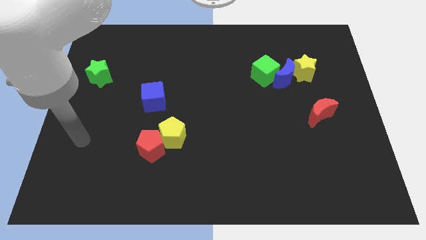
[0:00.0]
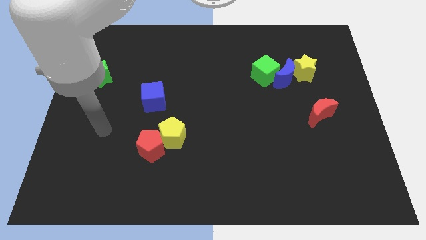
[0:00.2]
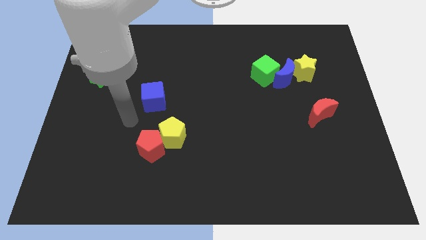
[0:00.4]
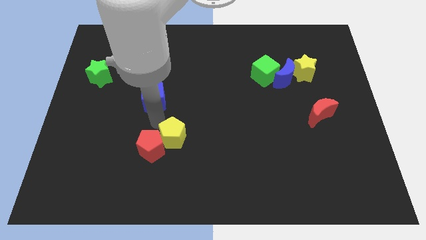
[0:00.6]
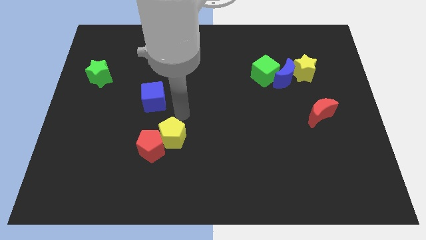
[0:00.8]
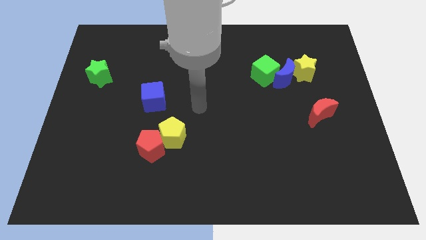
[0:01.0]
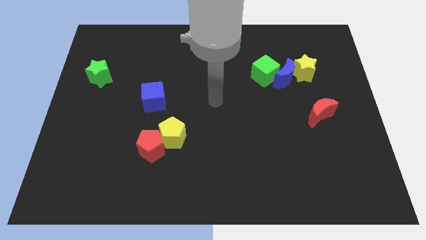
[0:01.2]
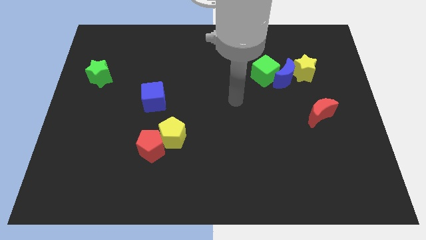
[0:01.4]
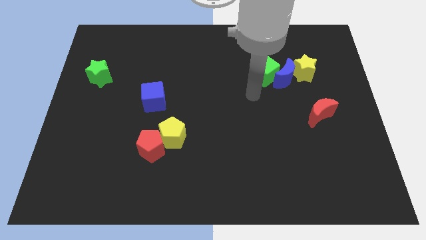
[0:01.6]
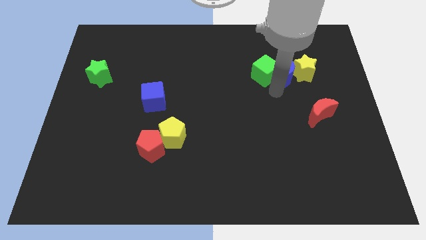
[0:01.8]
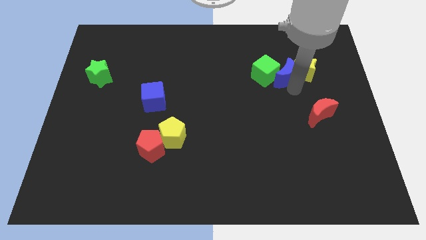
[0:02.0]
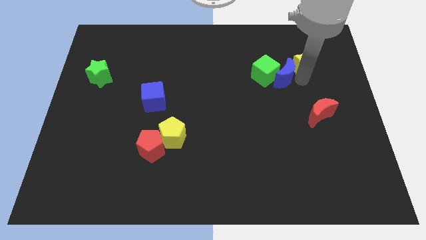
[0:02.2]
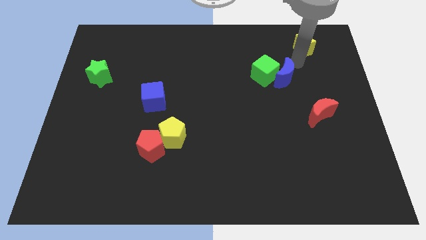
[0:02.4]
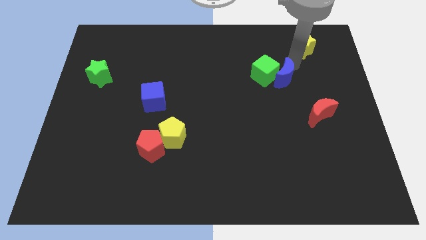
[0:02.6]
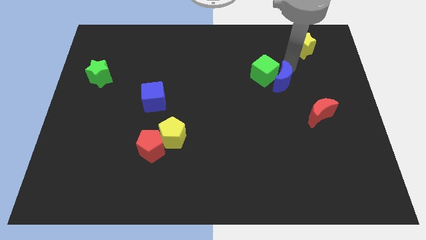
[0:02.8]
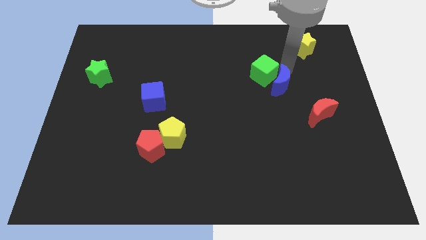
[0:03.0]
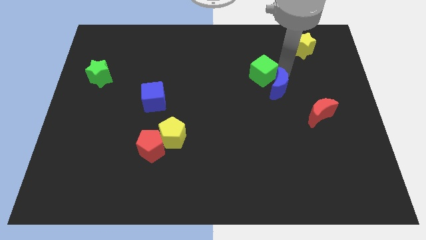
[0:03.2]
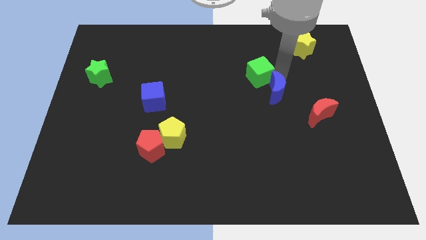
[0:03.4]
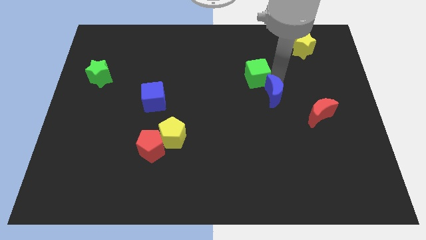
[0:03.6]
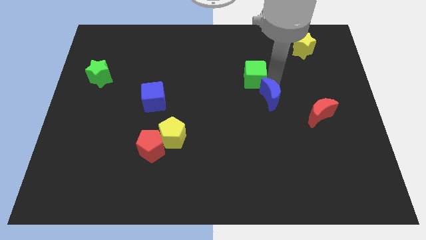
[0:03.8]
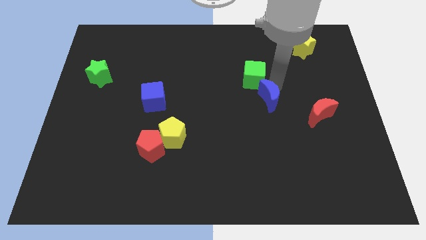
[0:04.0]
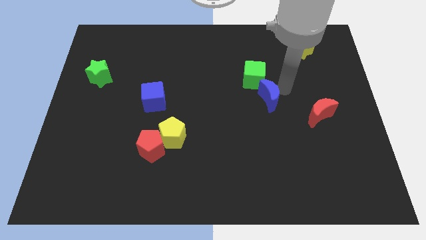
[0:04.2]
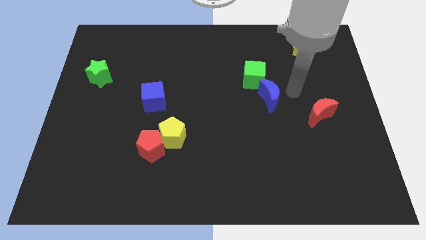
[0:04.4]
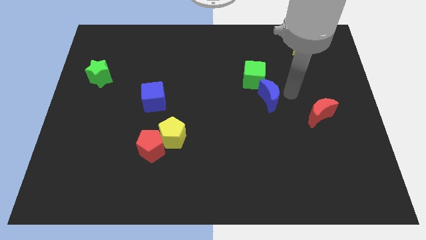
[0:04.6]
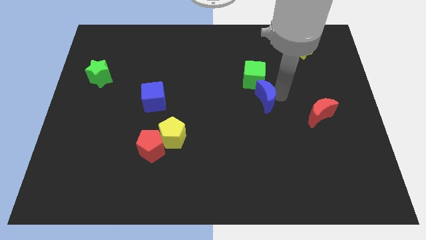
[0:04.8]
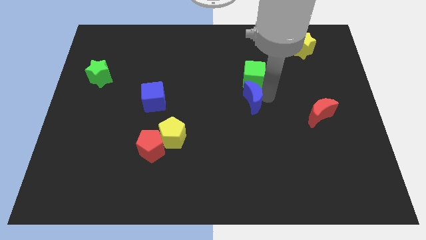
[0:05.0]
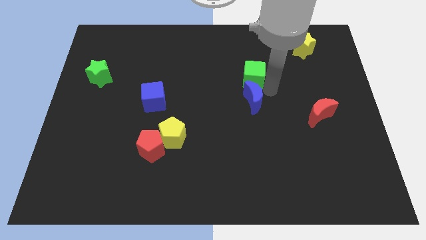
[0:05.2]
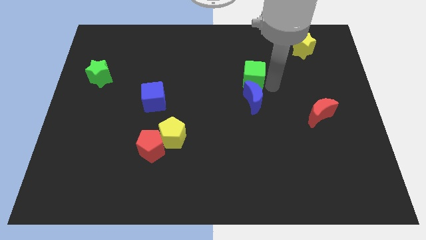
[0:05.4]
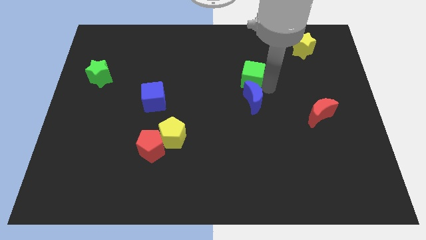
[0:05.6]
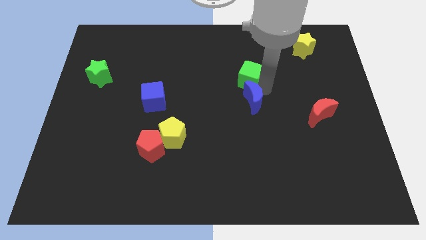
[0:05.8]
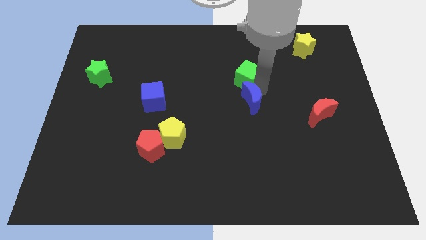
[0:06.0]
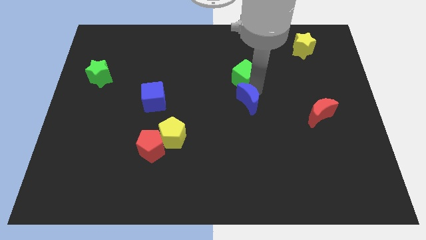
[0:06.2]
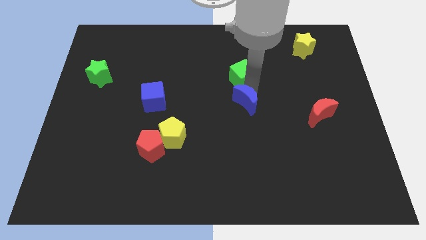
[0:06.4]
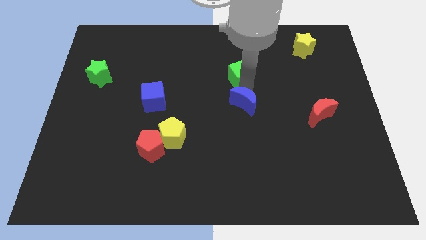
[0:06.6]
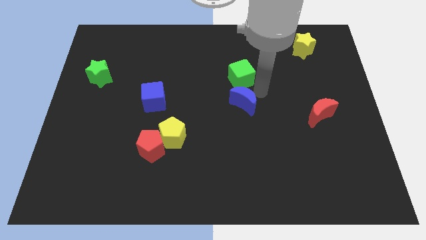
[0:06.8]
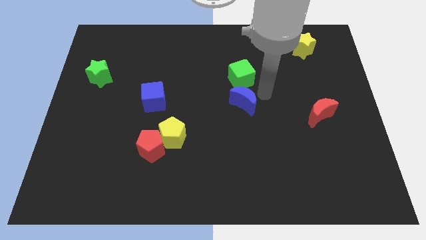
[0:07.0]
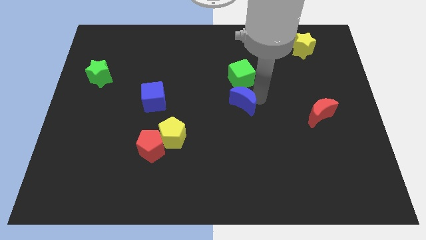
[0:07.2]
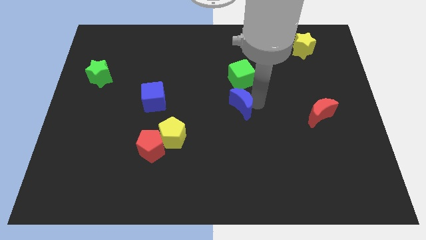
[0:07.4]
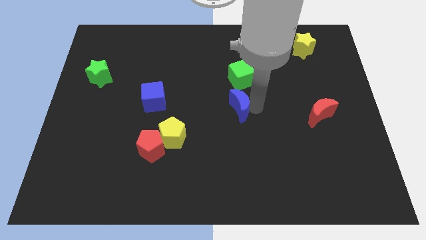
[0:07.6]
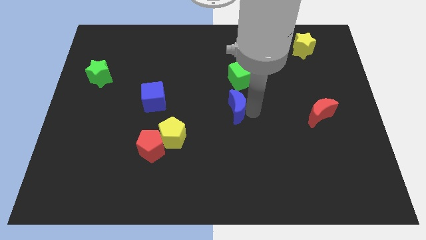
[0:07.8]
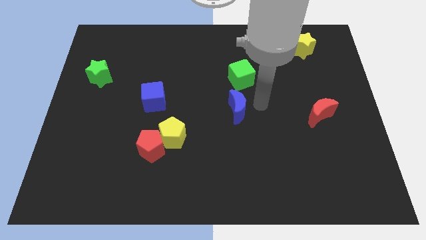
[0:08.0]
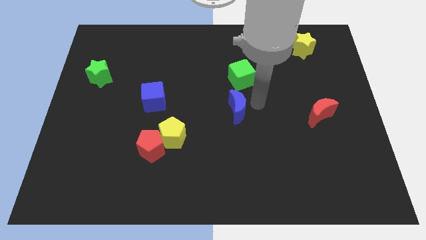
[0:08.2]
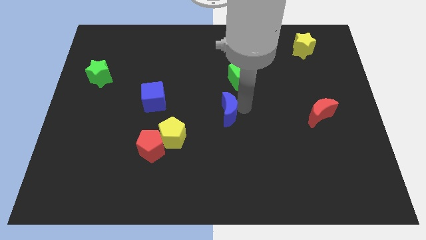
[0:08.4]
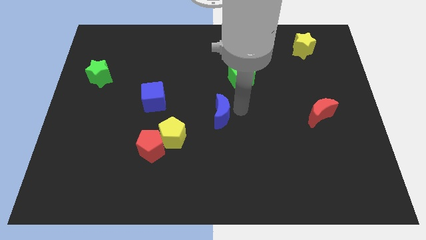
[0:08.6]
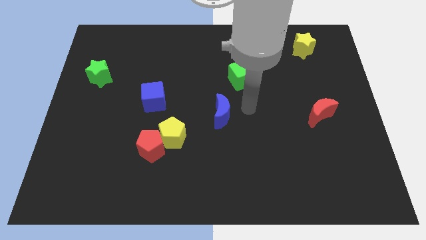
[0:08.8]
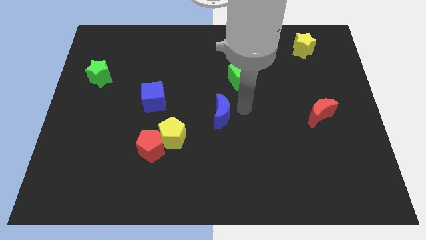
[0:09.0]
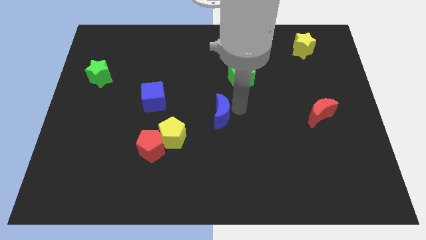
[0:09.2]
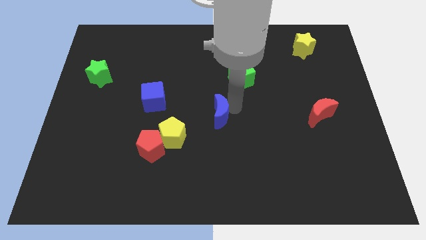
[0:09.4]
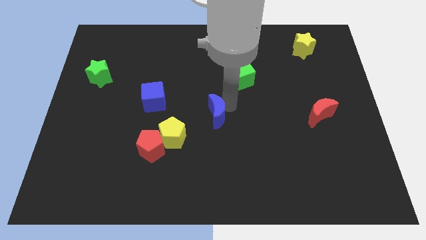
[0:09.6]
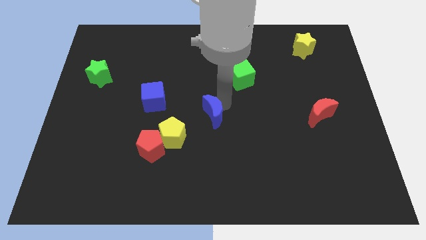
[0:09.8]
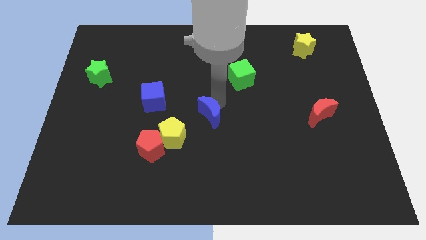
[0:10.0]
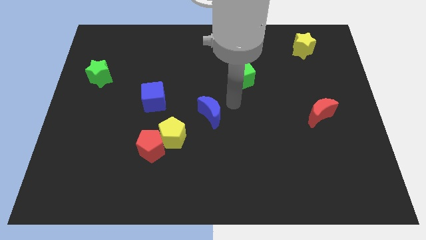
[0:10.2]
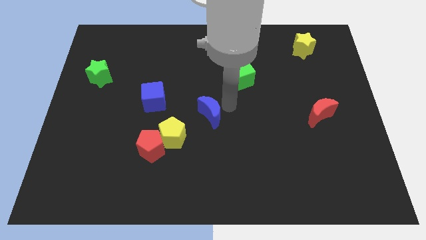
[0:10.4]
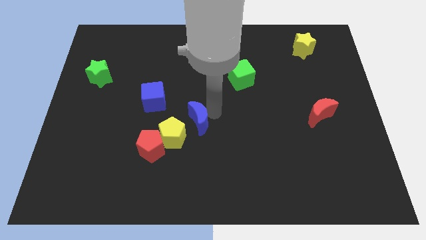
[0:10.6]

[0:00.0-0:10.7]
put the blue moon to the top right side of the red pentagon

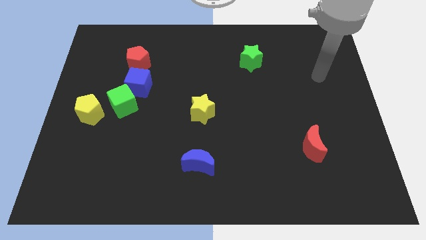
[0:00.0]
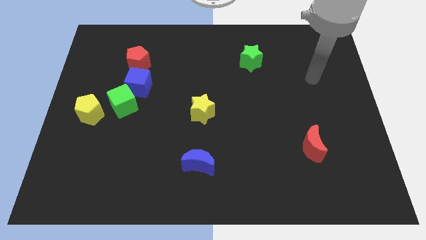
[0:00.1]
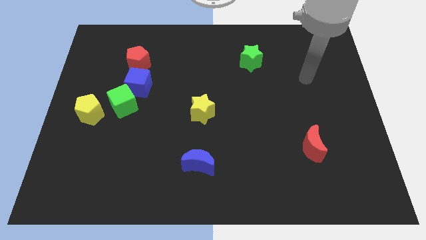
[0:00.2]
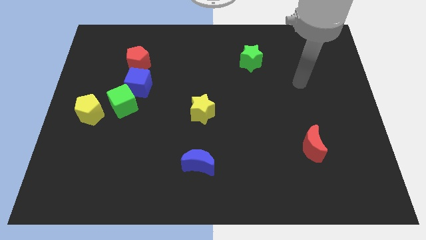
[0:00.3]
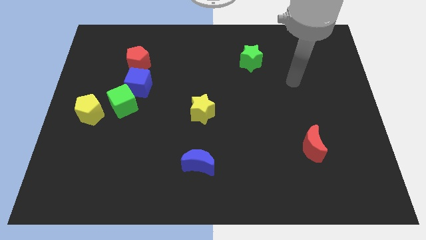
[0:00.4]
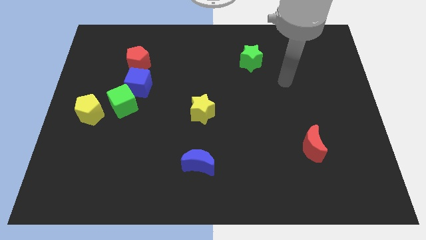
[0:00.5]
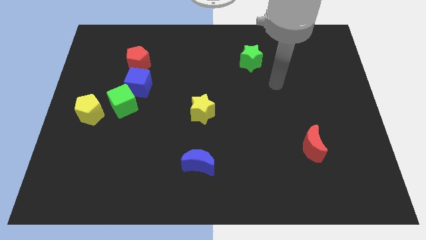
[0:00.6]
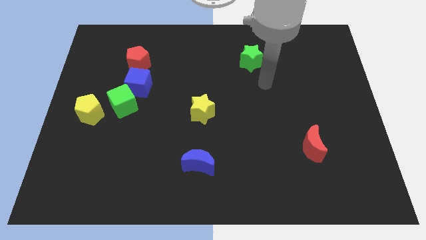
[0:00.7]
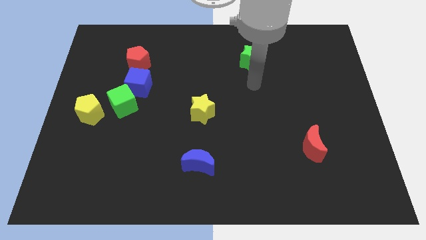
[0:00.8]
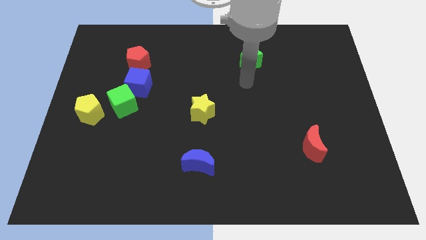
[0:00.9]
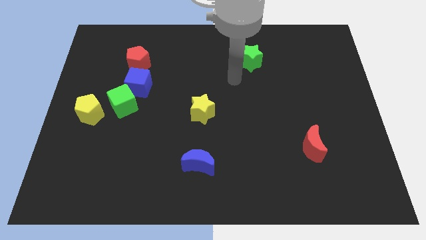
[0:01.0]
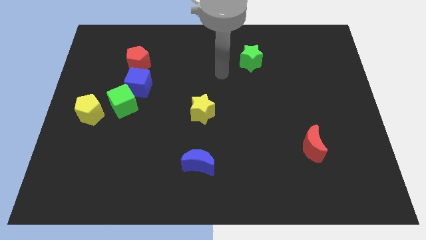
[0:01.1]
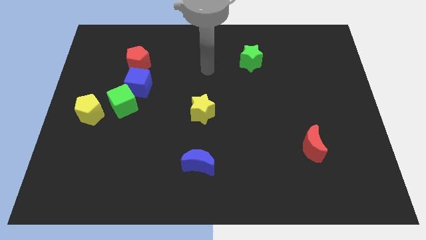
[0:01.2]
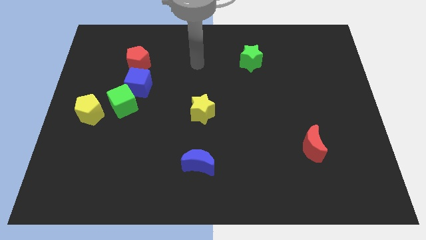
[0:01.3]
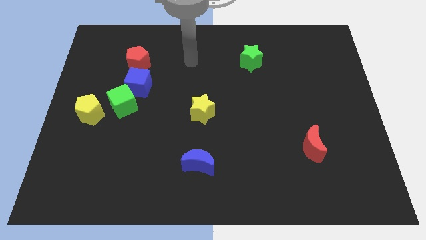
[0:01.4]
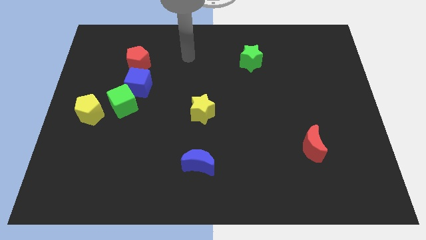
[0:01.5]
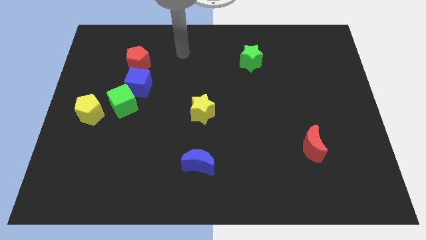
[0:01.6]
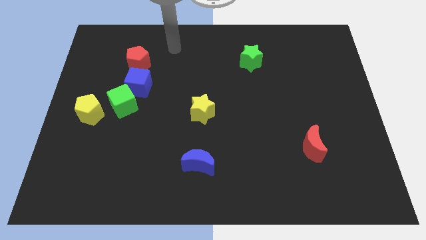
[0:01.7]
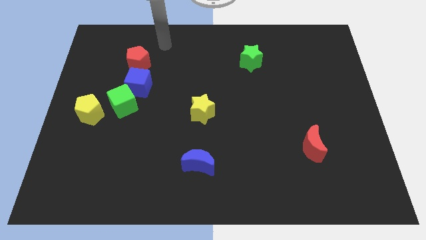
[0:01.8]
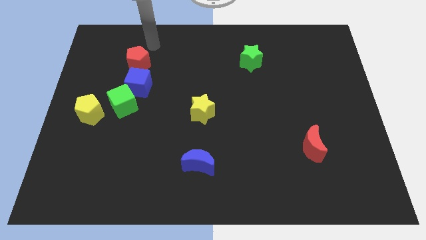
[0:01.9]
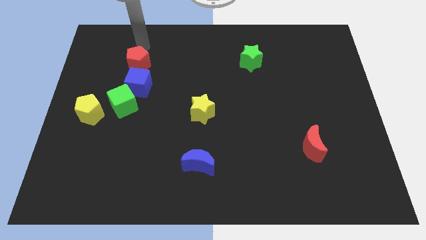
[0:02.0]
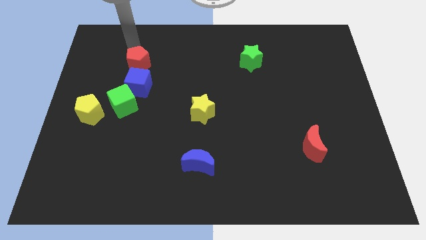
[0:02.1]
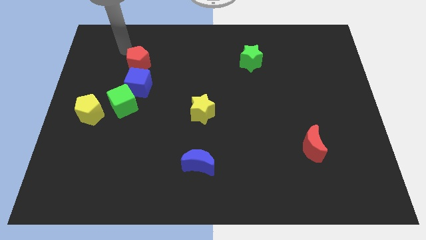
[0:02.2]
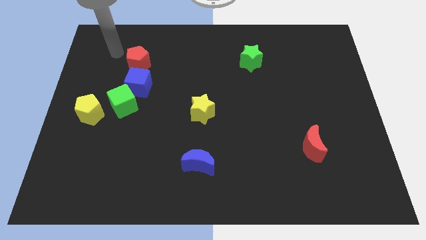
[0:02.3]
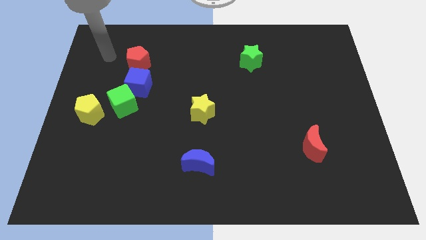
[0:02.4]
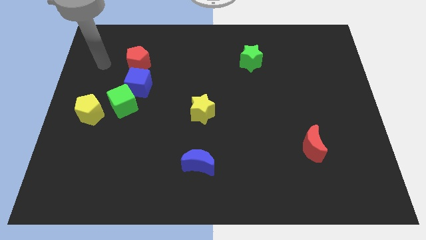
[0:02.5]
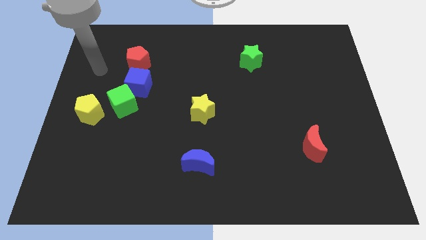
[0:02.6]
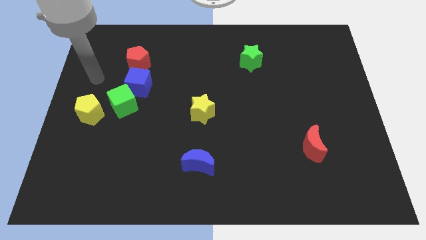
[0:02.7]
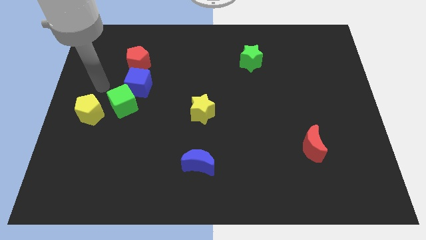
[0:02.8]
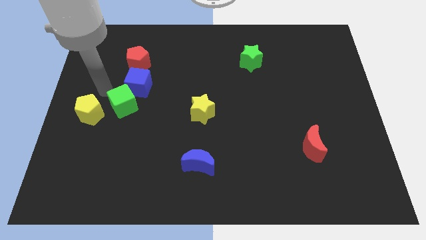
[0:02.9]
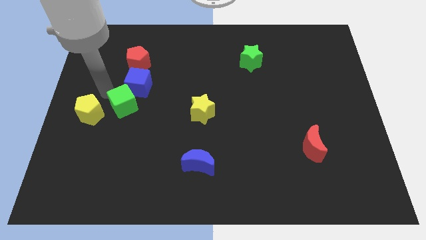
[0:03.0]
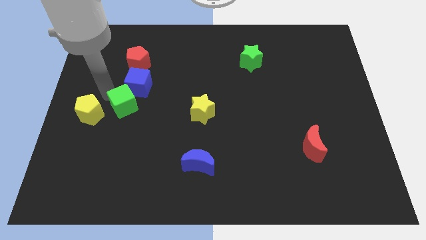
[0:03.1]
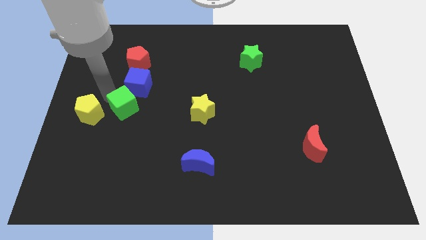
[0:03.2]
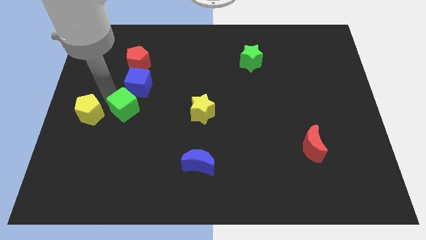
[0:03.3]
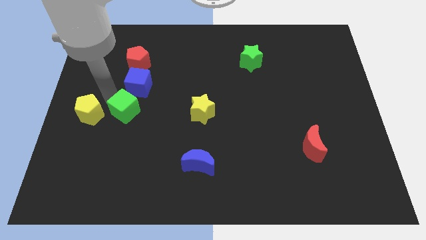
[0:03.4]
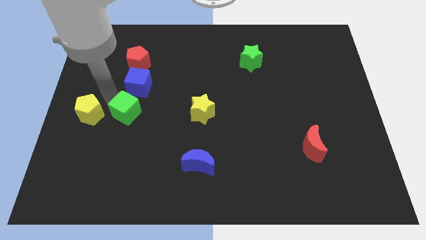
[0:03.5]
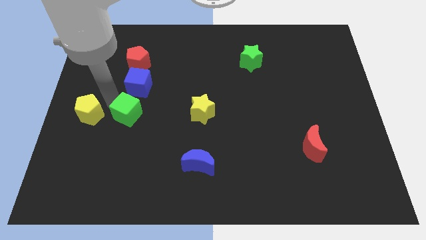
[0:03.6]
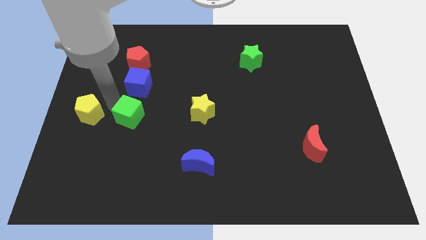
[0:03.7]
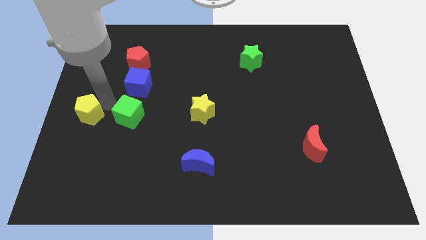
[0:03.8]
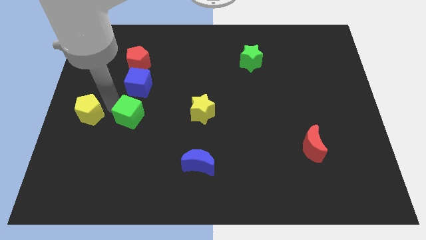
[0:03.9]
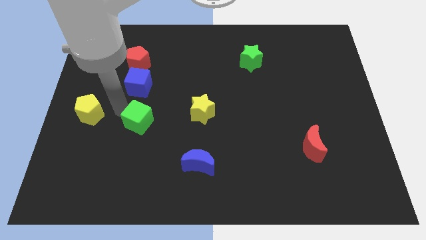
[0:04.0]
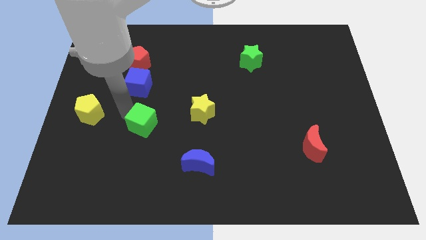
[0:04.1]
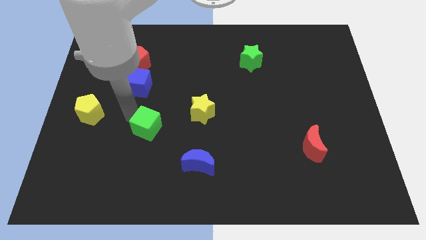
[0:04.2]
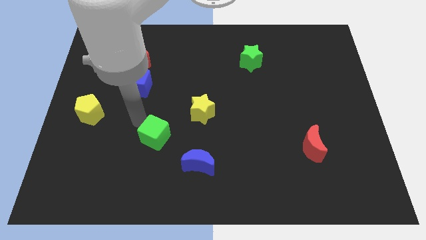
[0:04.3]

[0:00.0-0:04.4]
put the green cube to the top left side of the blue moon
